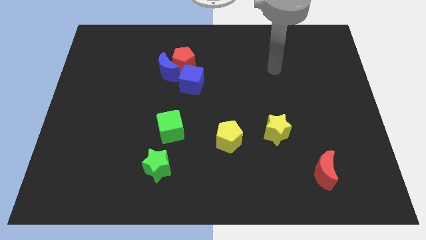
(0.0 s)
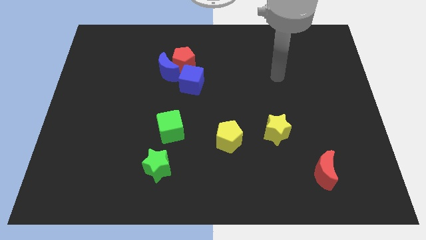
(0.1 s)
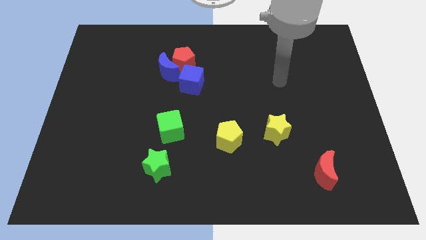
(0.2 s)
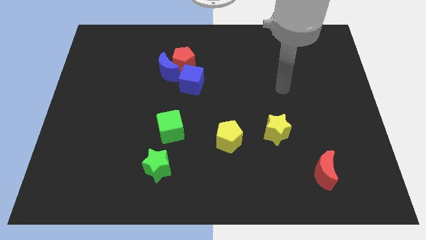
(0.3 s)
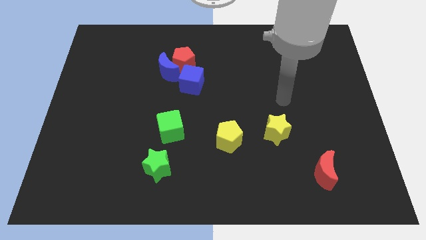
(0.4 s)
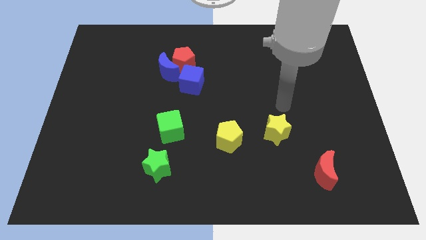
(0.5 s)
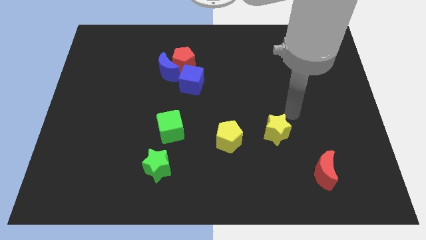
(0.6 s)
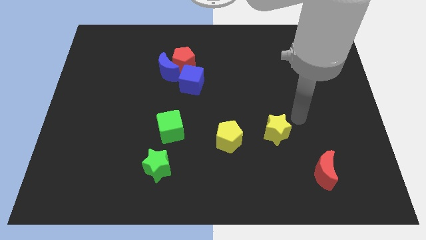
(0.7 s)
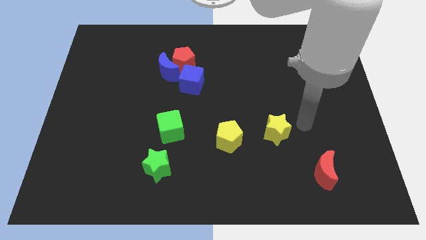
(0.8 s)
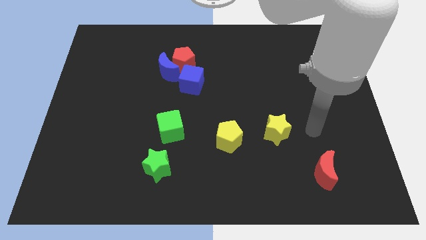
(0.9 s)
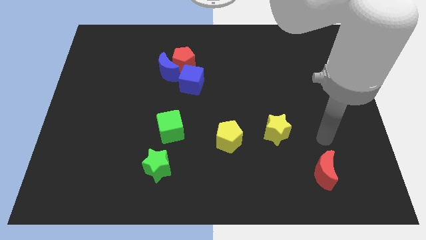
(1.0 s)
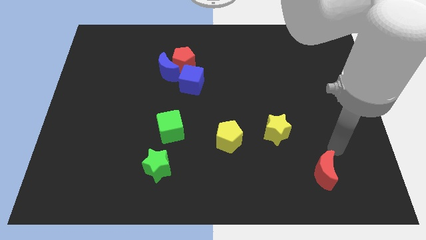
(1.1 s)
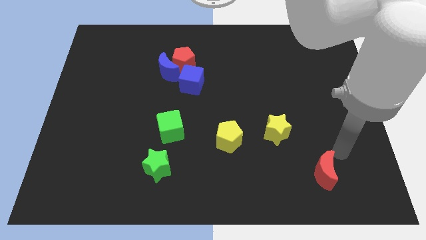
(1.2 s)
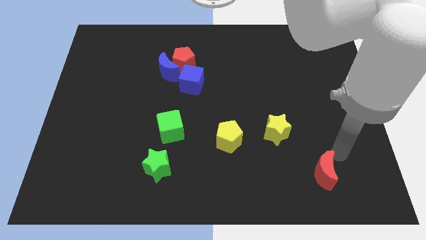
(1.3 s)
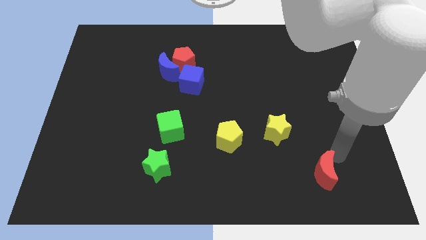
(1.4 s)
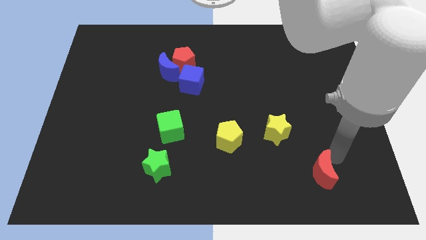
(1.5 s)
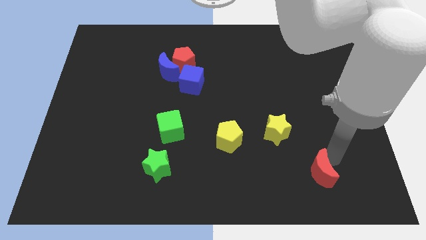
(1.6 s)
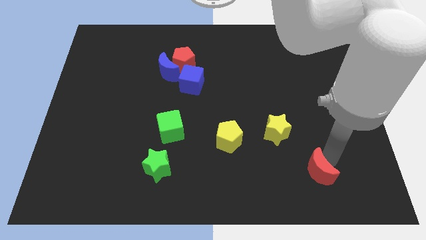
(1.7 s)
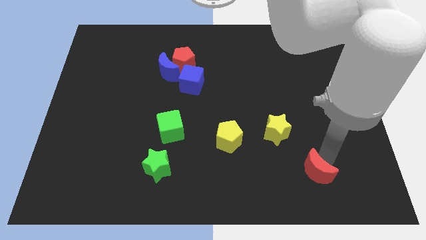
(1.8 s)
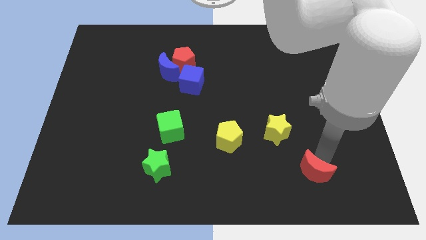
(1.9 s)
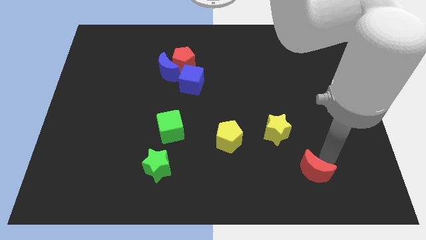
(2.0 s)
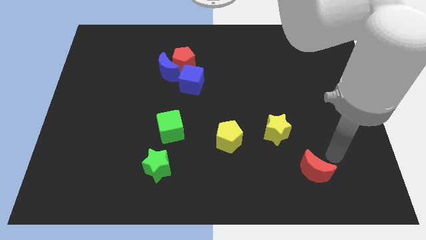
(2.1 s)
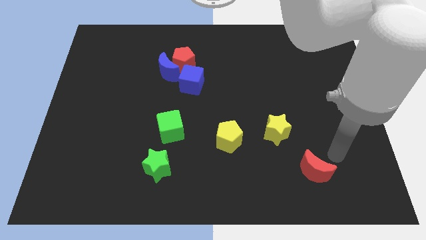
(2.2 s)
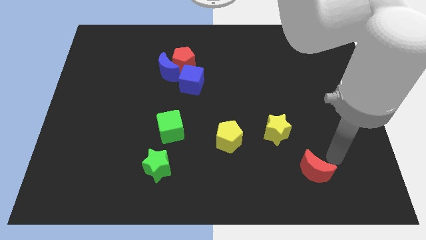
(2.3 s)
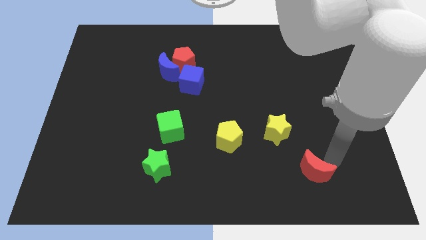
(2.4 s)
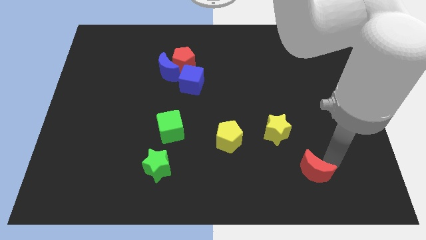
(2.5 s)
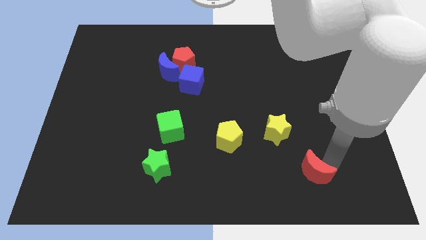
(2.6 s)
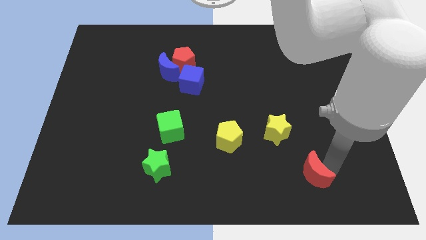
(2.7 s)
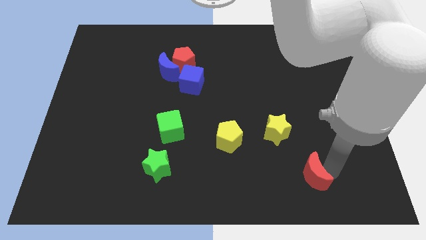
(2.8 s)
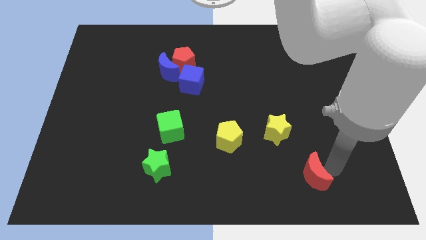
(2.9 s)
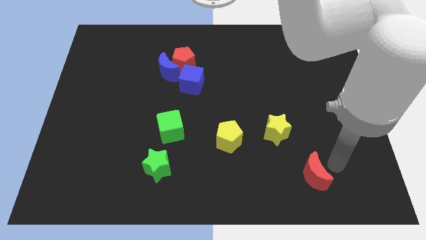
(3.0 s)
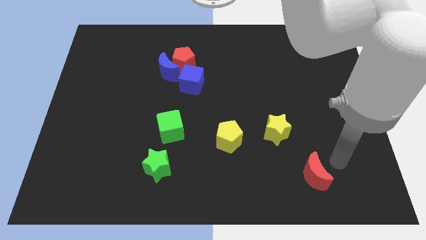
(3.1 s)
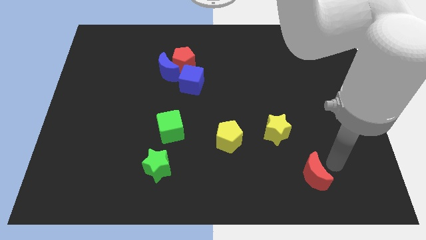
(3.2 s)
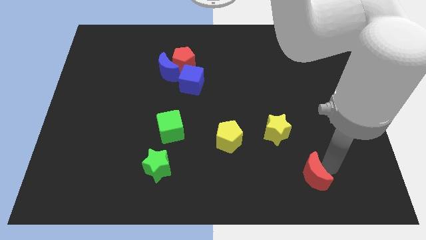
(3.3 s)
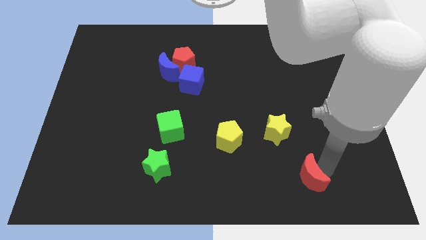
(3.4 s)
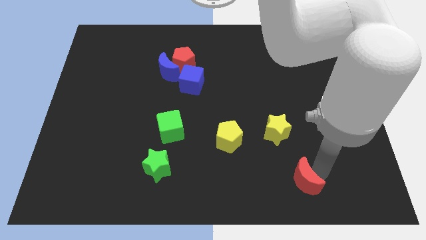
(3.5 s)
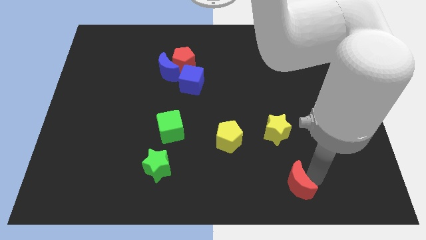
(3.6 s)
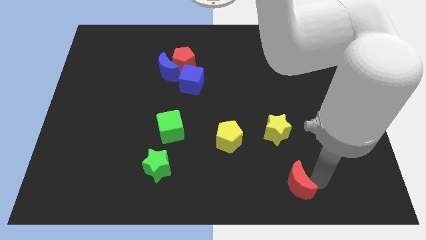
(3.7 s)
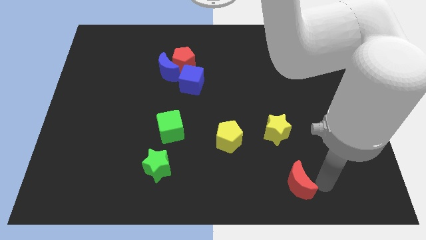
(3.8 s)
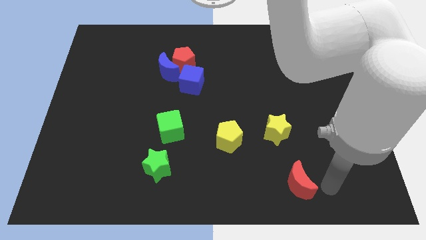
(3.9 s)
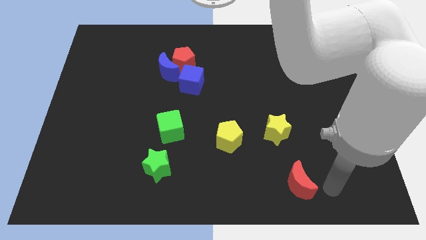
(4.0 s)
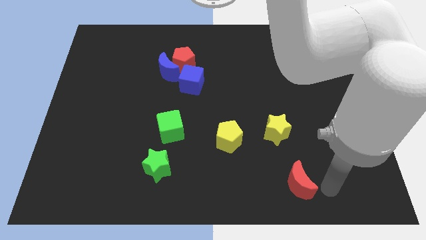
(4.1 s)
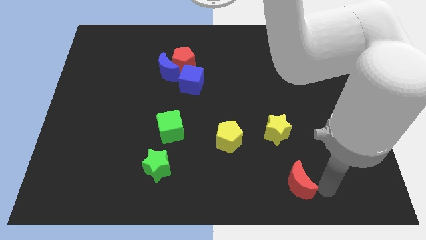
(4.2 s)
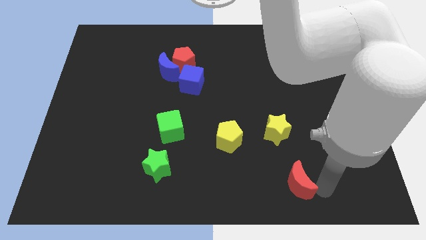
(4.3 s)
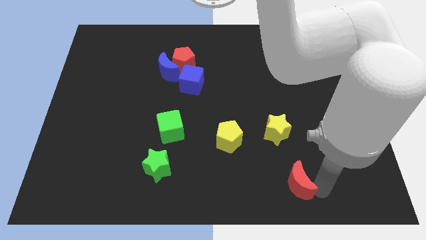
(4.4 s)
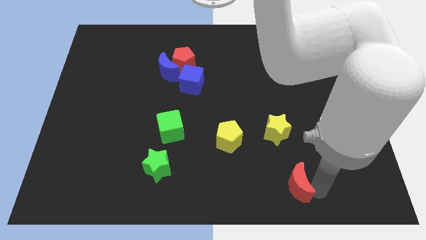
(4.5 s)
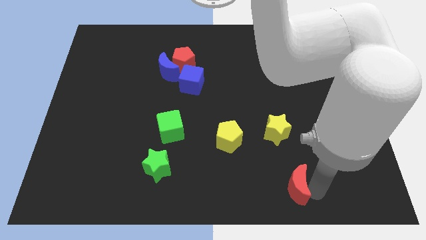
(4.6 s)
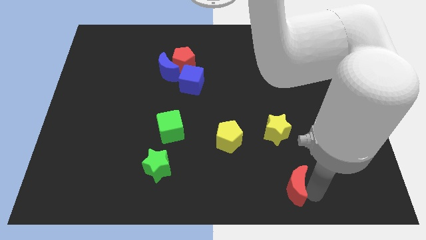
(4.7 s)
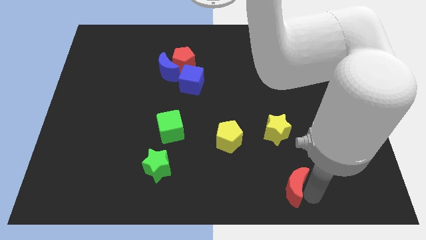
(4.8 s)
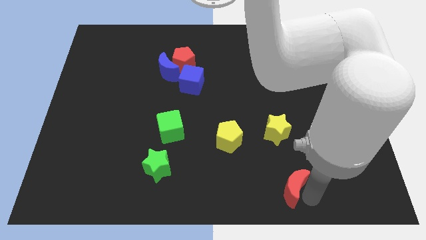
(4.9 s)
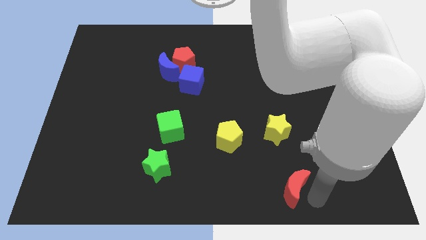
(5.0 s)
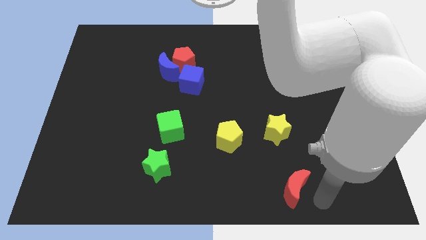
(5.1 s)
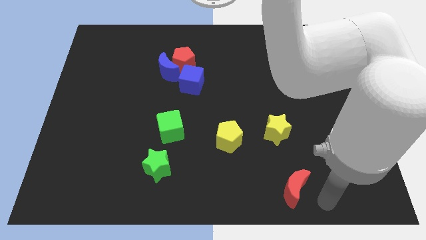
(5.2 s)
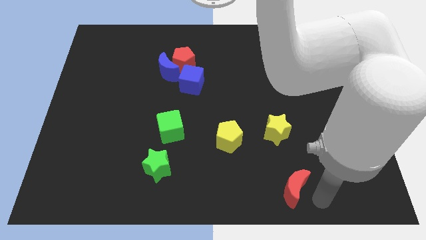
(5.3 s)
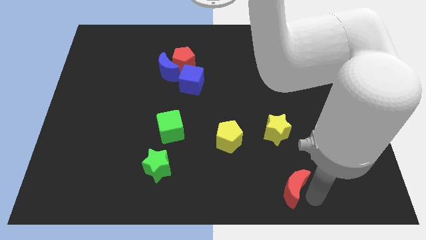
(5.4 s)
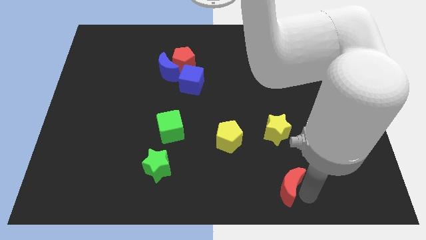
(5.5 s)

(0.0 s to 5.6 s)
slide the red moon slightly left

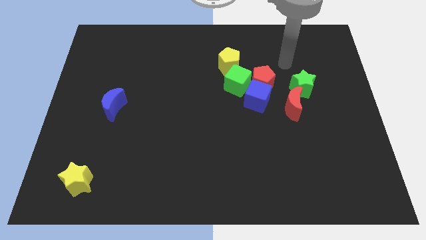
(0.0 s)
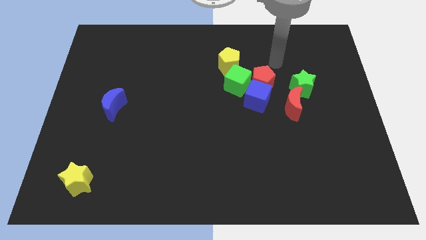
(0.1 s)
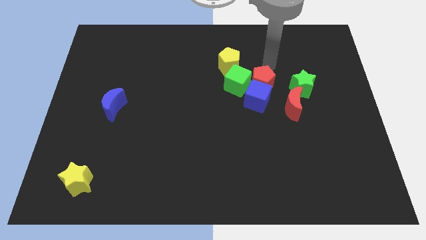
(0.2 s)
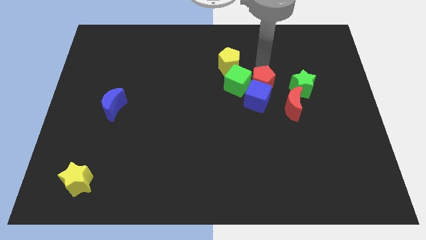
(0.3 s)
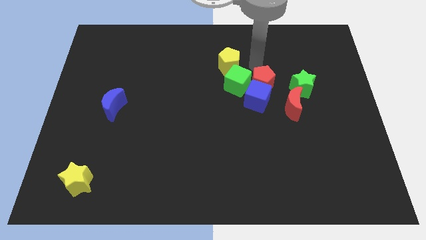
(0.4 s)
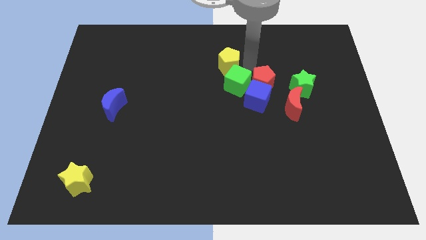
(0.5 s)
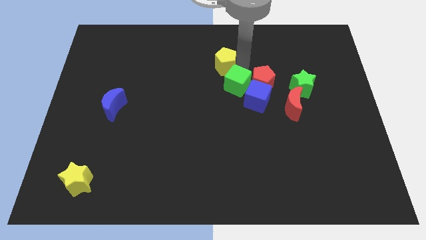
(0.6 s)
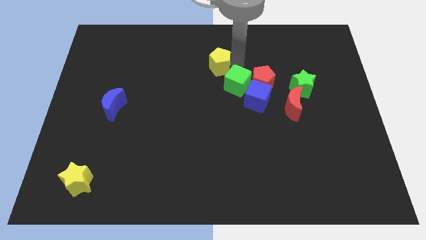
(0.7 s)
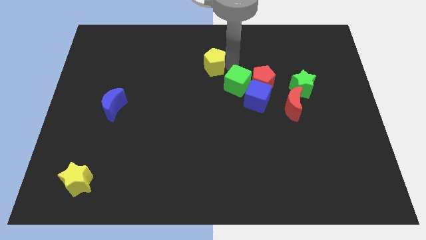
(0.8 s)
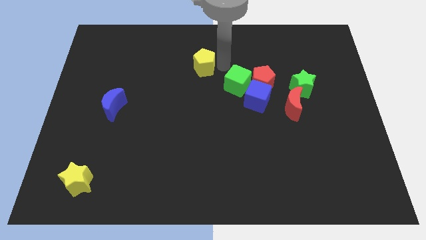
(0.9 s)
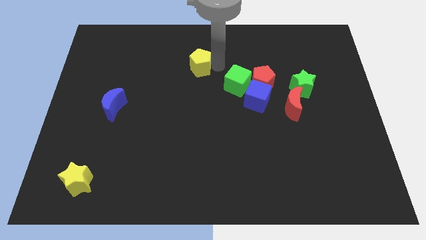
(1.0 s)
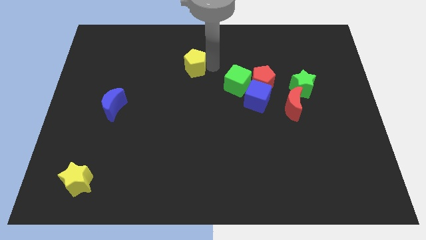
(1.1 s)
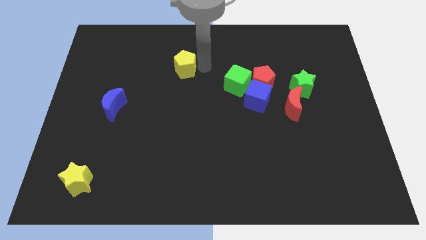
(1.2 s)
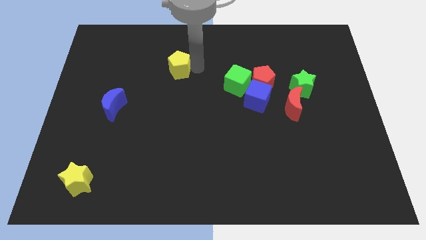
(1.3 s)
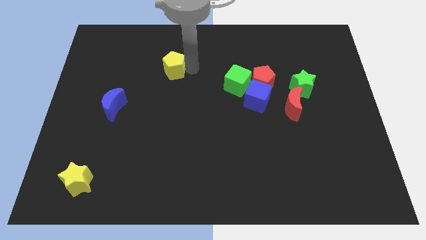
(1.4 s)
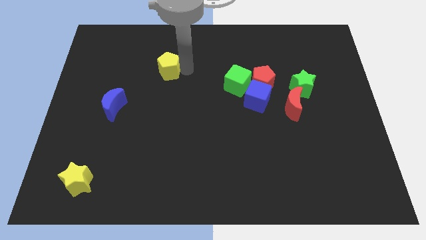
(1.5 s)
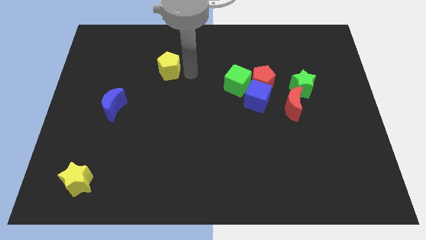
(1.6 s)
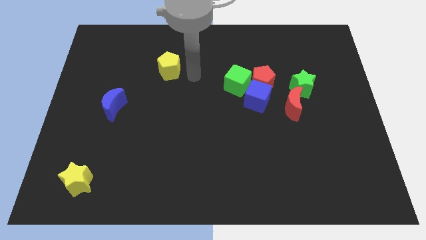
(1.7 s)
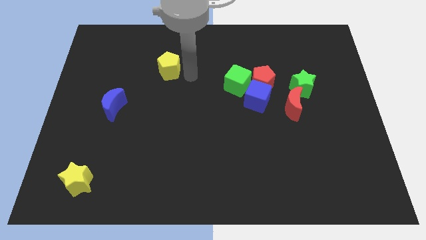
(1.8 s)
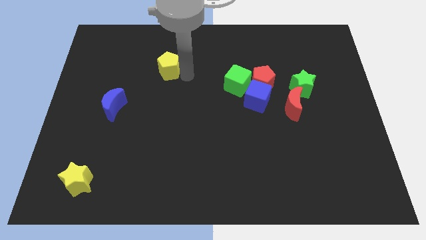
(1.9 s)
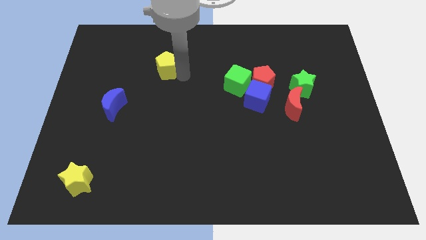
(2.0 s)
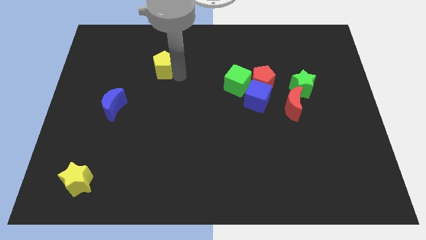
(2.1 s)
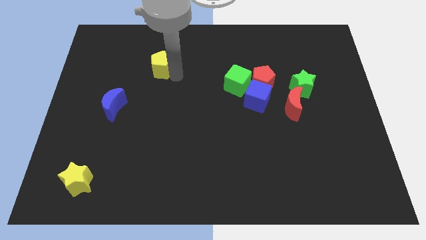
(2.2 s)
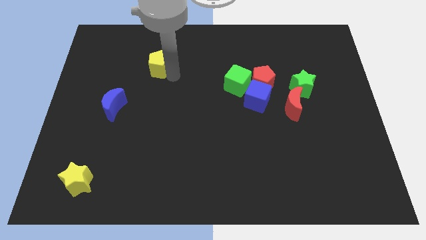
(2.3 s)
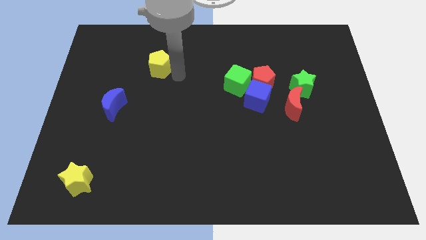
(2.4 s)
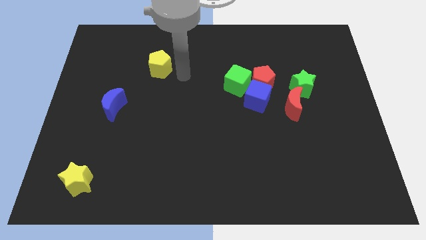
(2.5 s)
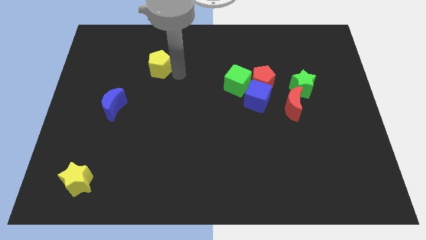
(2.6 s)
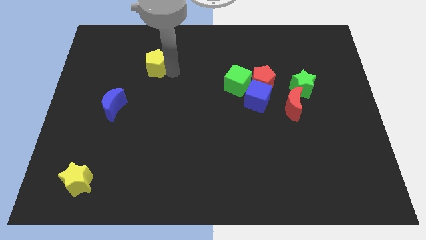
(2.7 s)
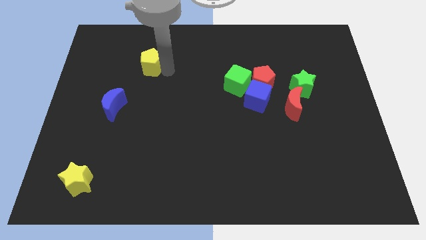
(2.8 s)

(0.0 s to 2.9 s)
move the yellow pentagon left
